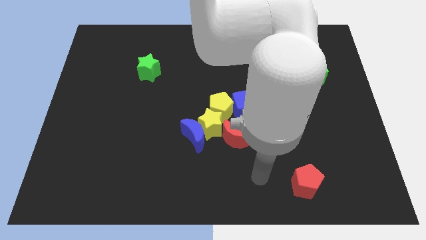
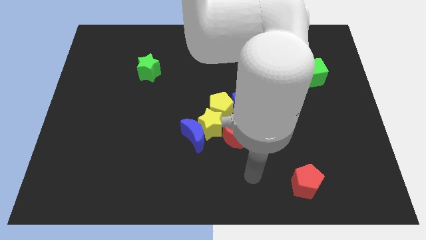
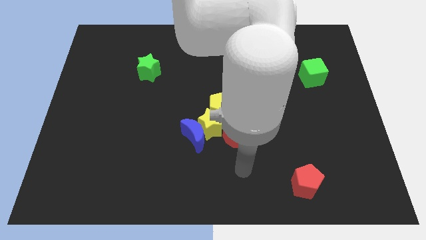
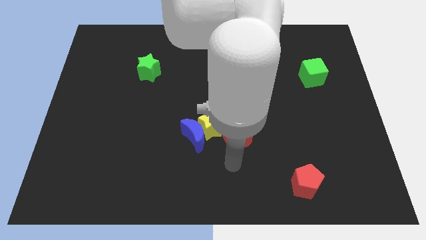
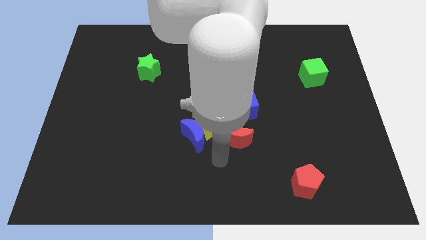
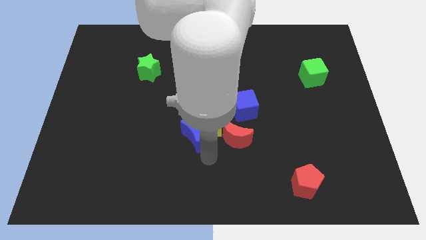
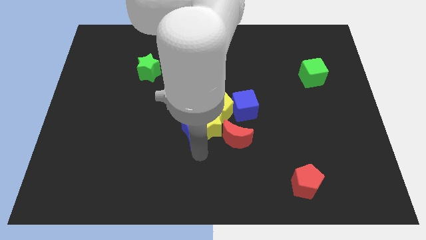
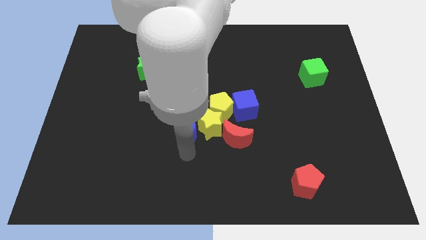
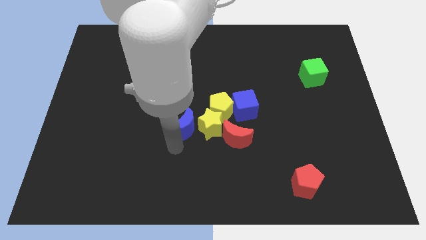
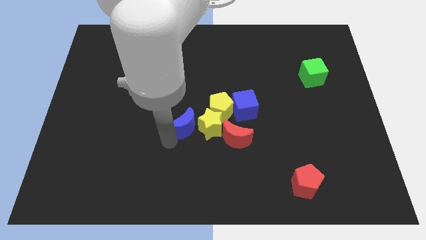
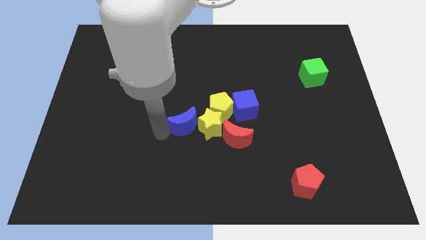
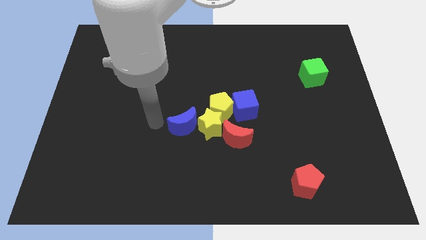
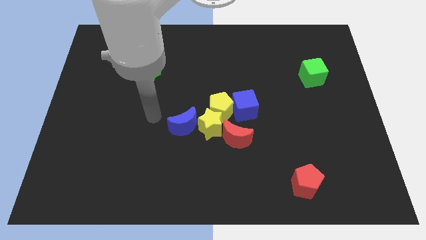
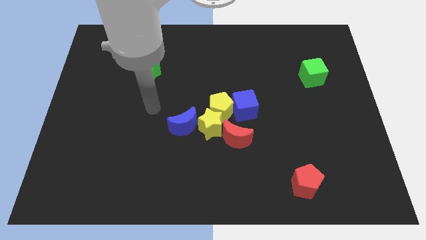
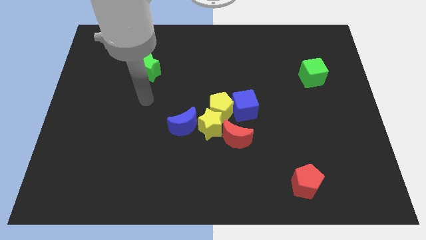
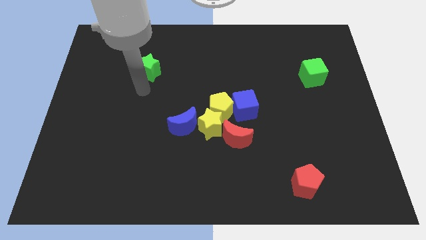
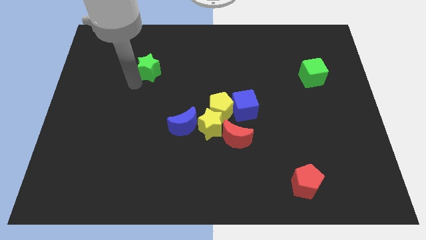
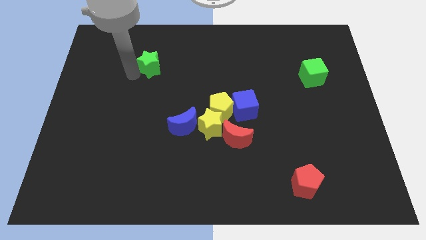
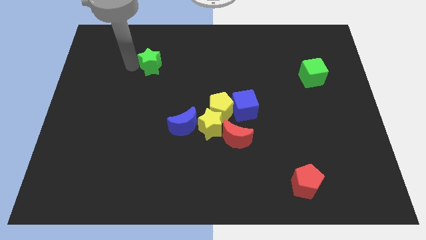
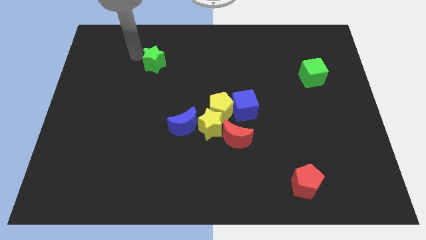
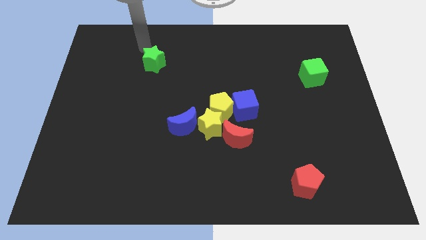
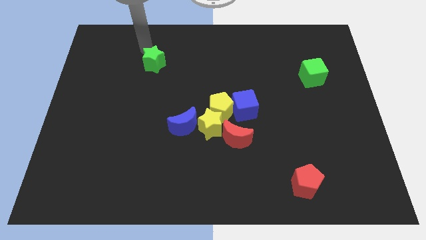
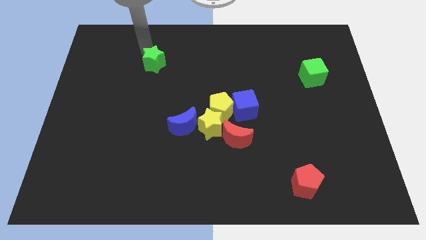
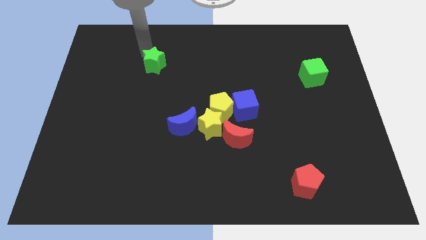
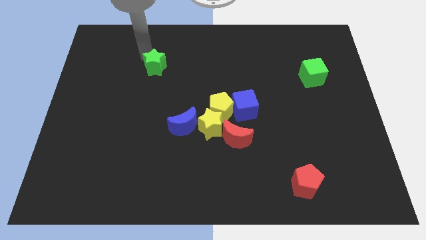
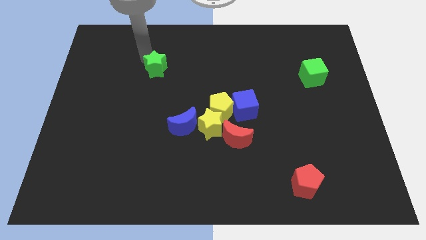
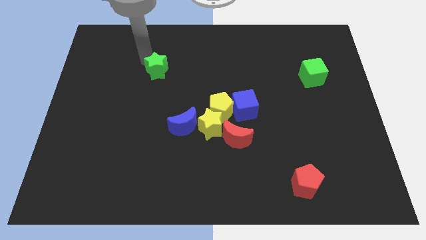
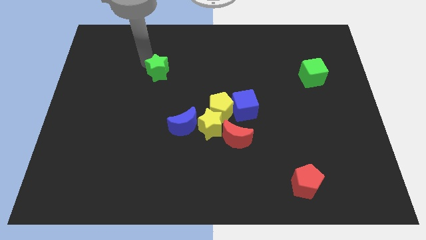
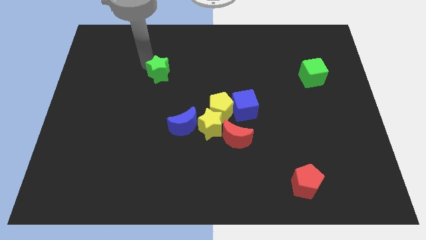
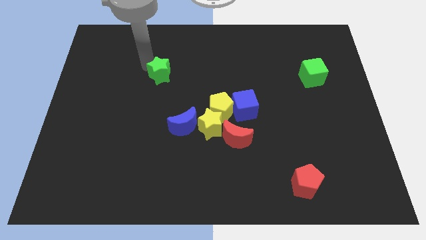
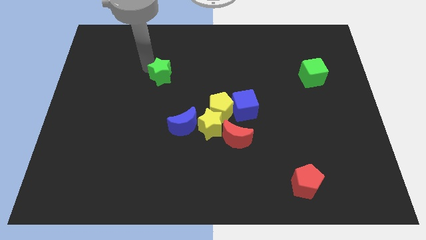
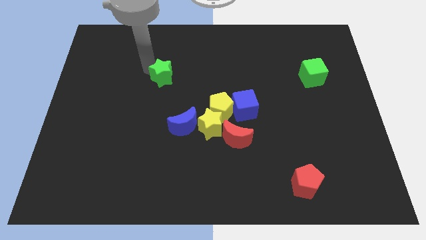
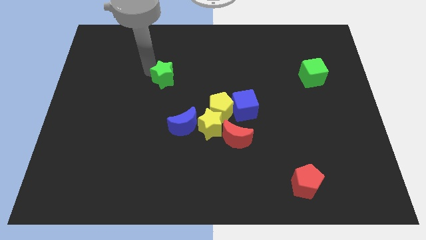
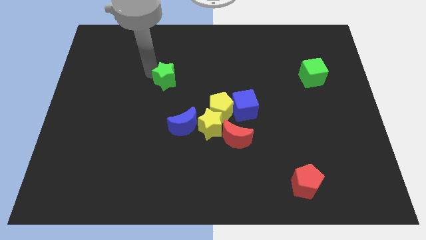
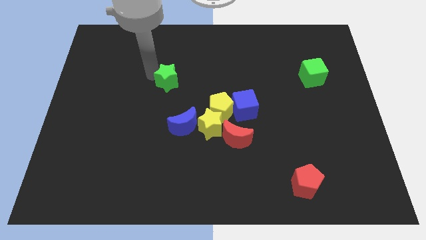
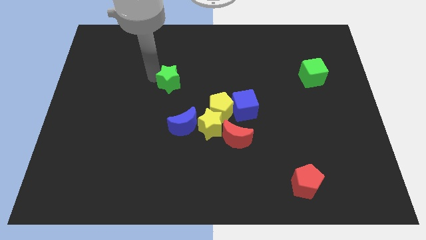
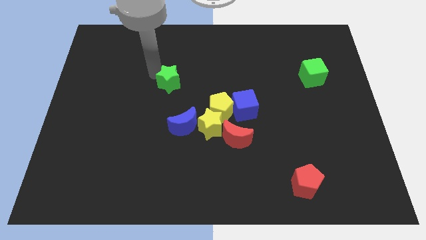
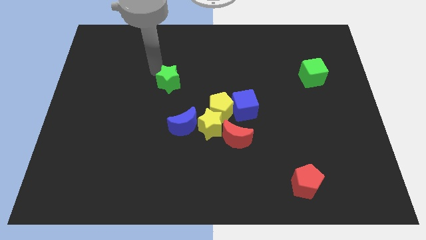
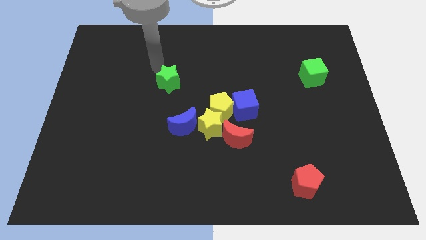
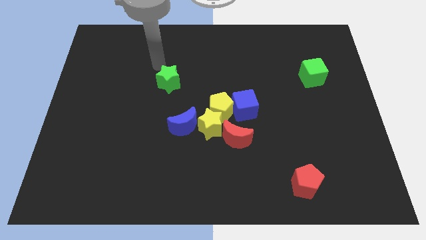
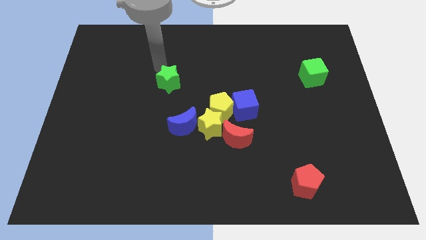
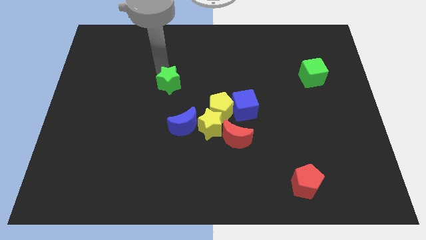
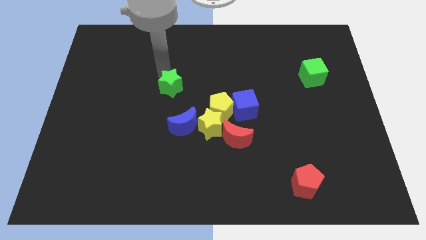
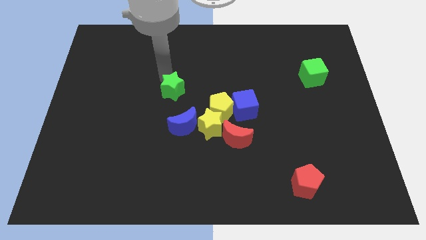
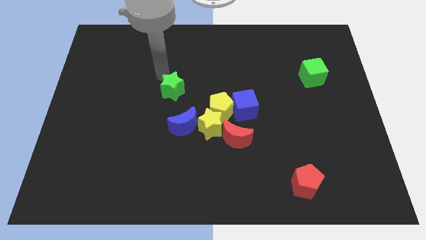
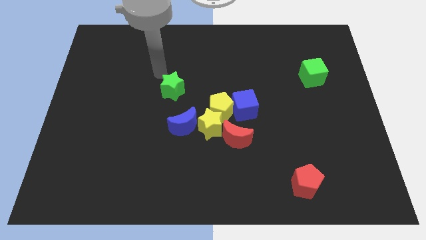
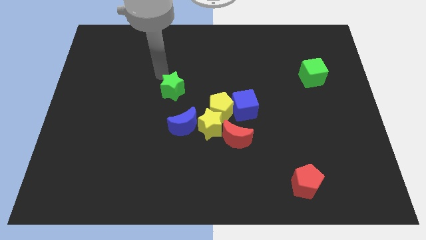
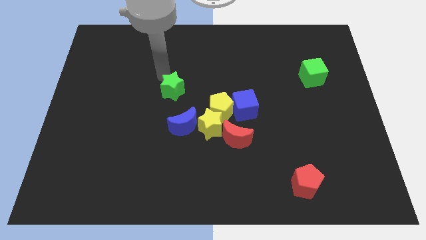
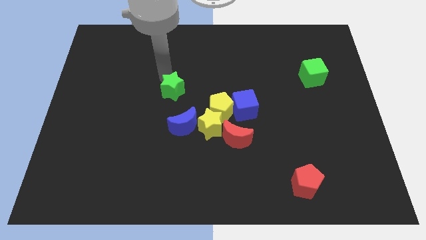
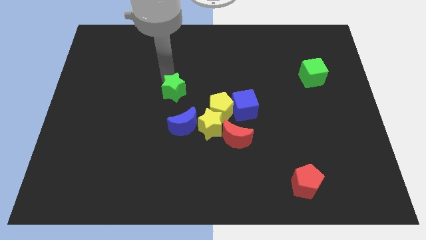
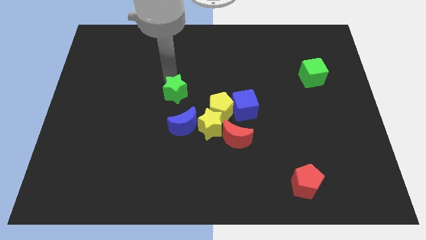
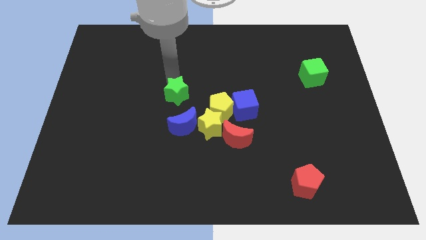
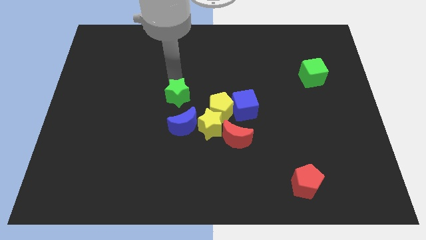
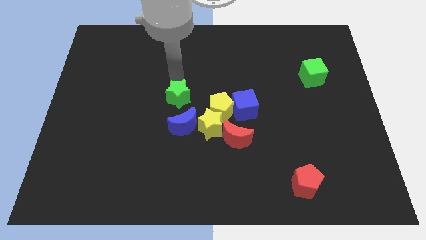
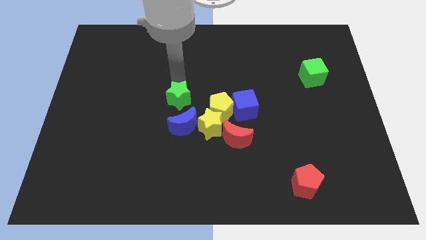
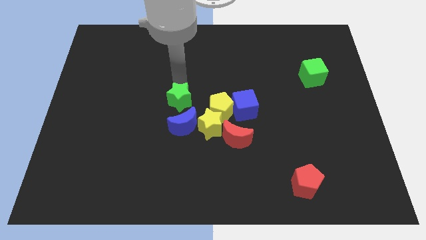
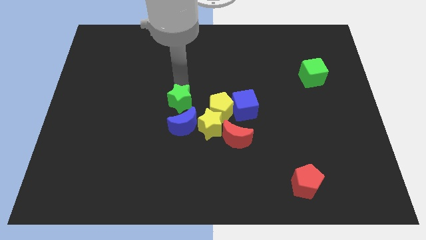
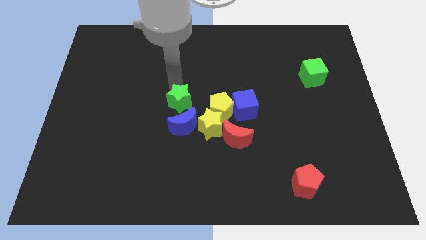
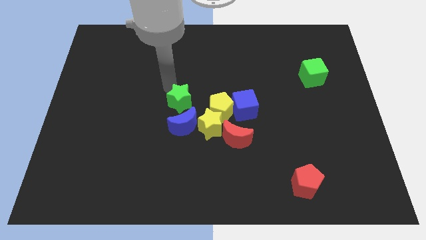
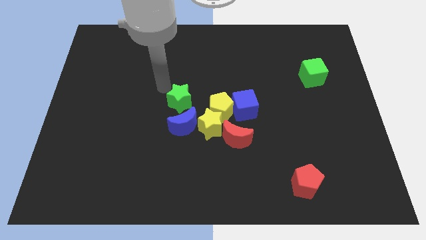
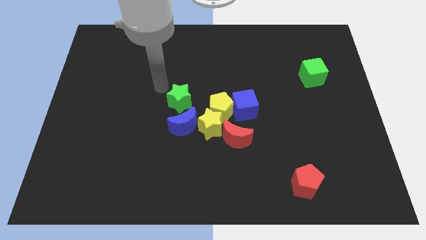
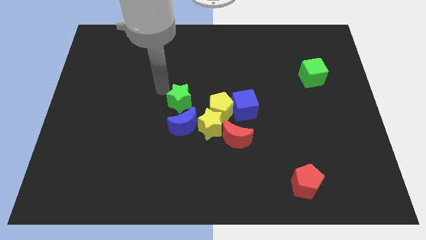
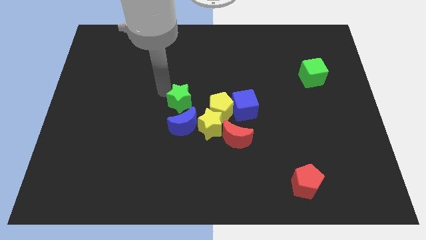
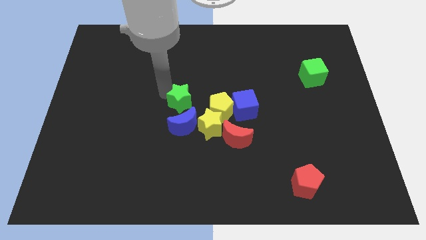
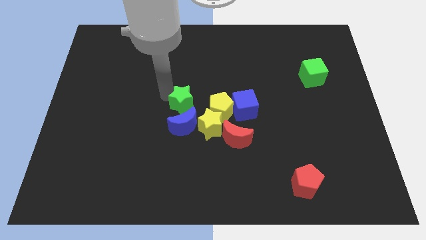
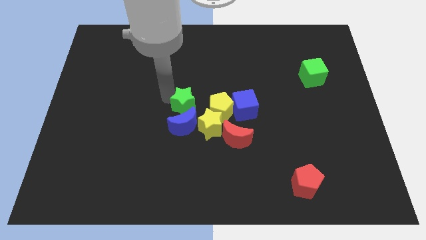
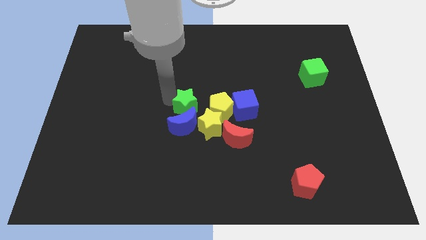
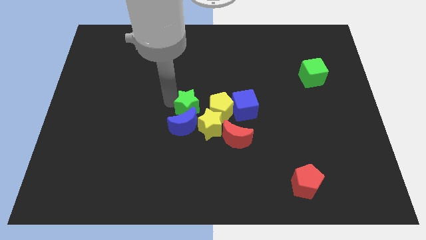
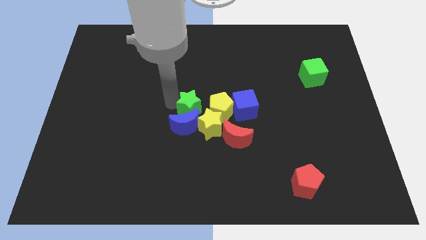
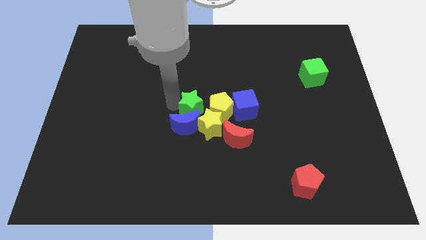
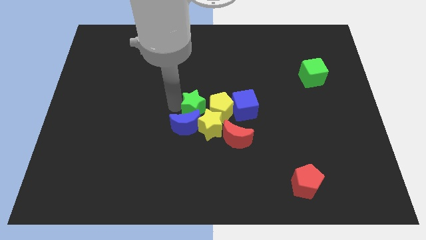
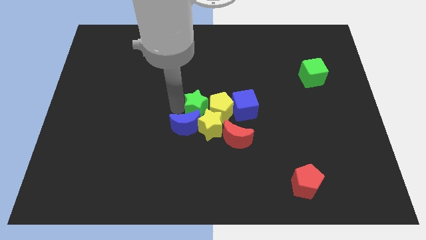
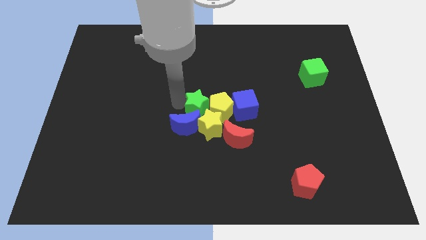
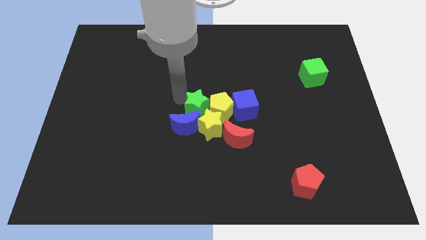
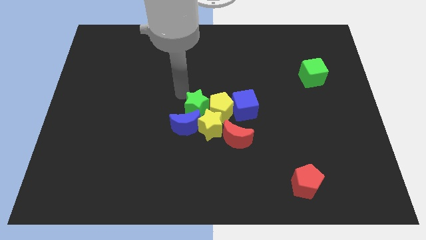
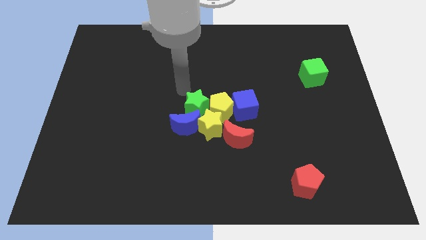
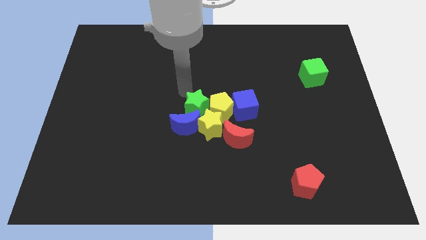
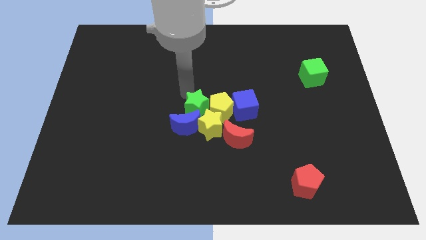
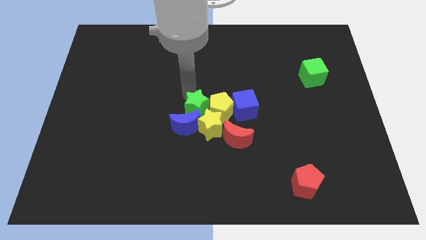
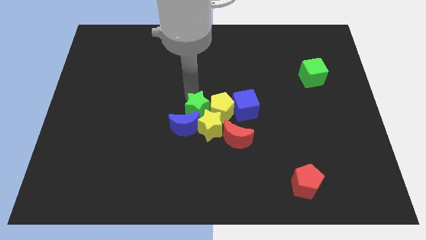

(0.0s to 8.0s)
slide the green star next to the yellow star
